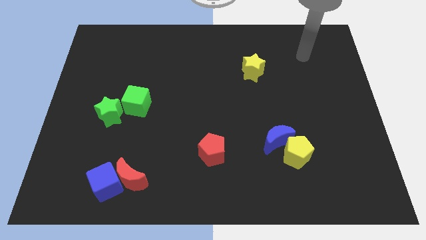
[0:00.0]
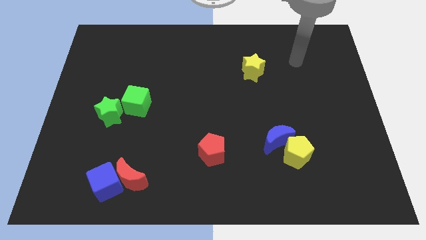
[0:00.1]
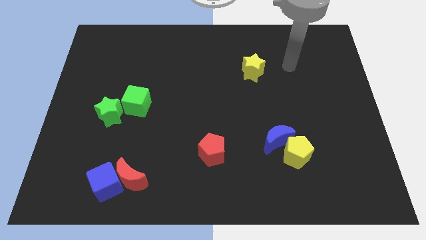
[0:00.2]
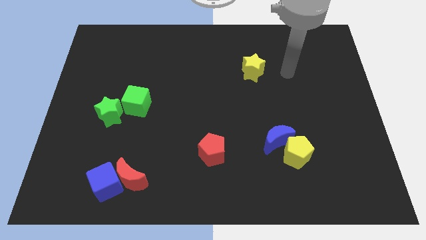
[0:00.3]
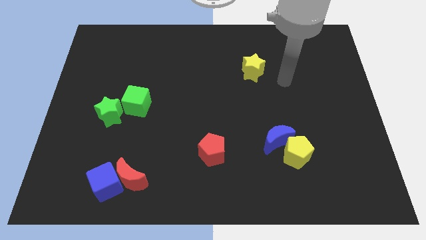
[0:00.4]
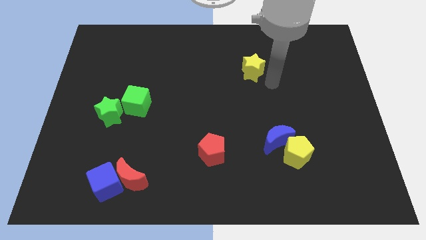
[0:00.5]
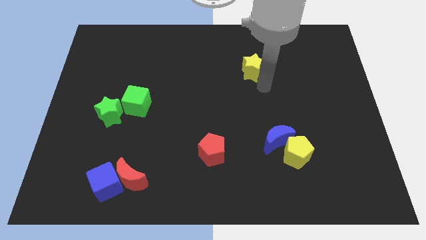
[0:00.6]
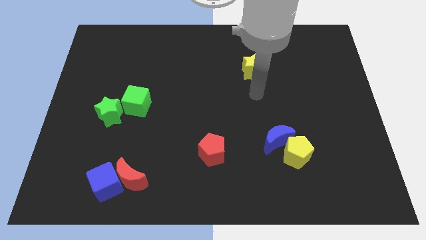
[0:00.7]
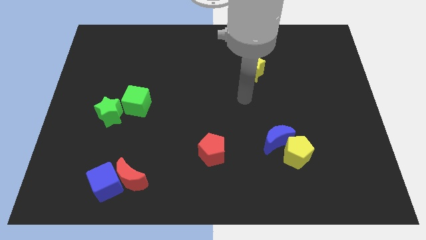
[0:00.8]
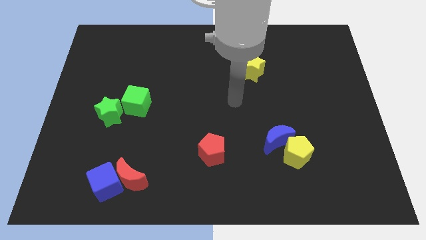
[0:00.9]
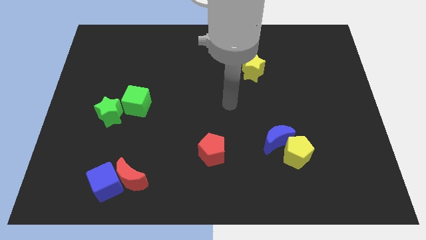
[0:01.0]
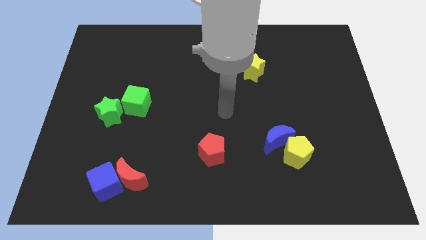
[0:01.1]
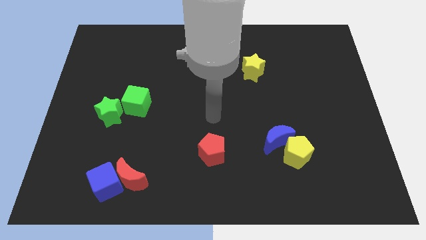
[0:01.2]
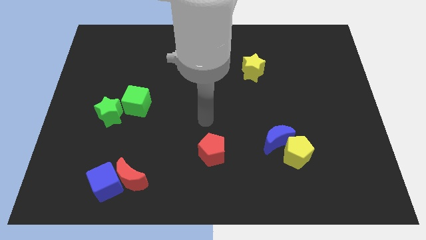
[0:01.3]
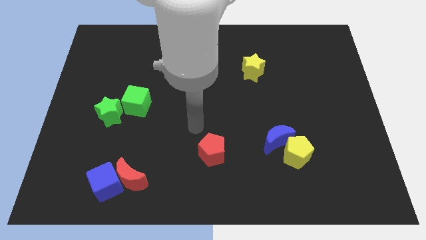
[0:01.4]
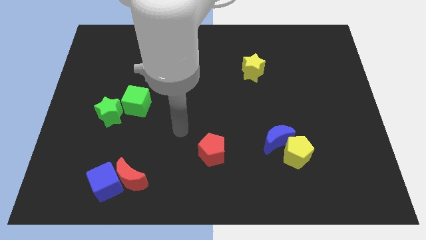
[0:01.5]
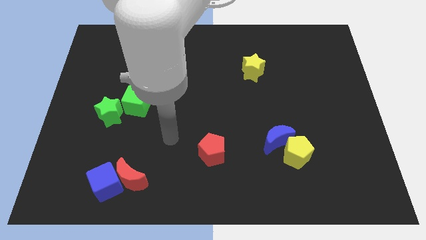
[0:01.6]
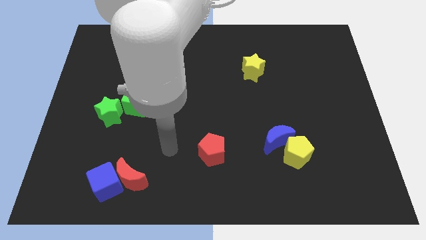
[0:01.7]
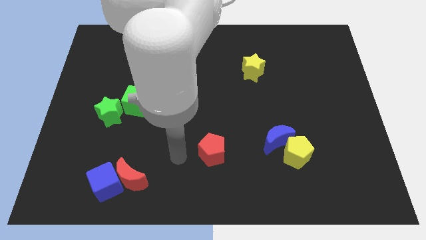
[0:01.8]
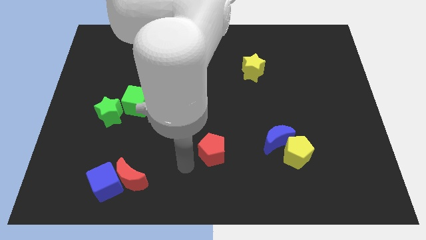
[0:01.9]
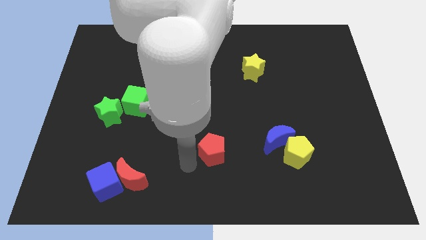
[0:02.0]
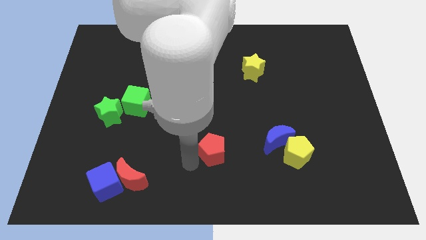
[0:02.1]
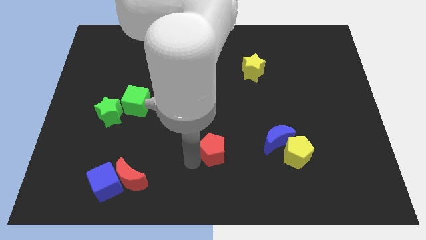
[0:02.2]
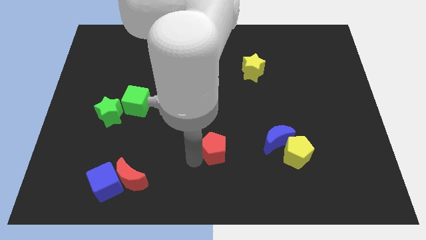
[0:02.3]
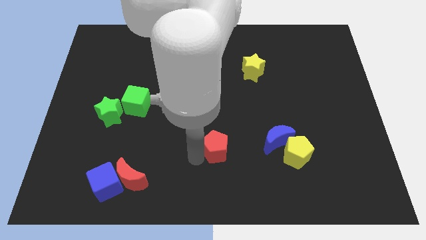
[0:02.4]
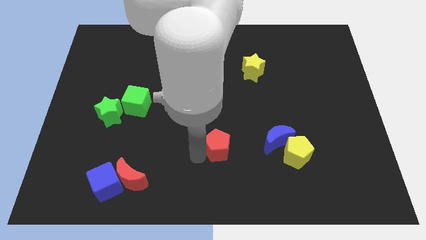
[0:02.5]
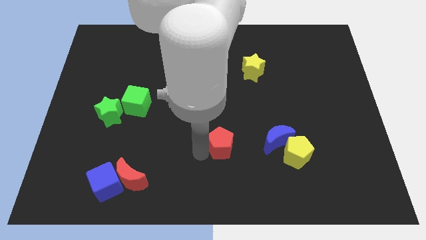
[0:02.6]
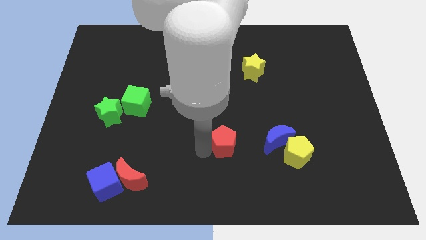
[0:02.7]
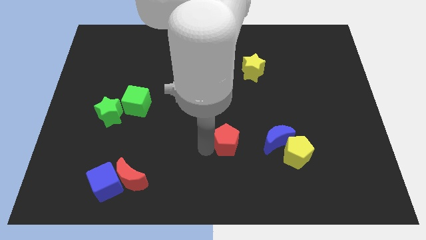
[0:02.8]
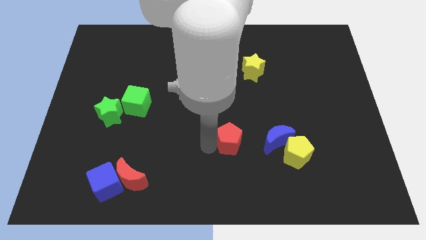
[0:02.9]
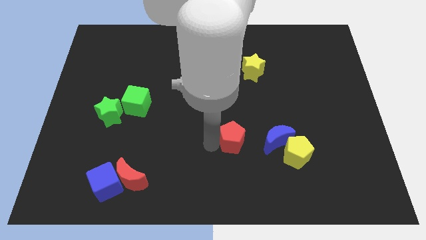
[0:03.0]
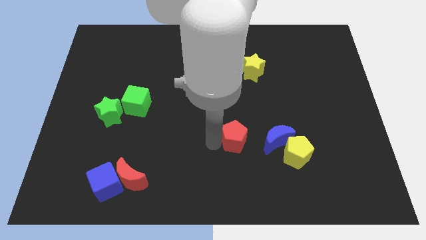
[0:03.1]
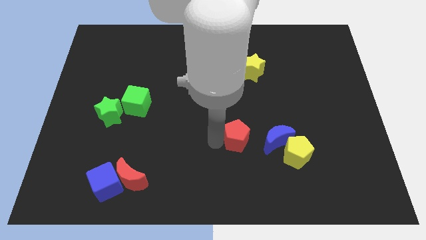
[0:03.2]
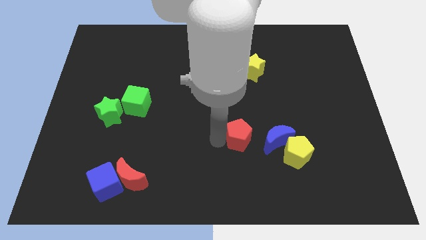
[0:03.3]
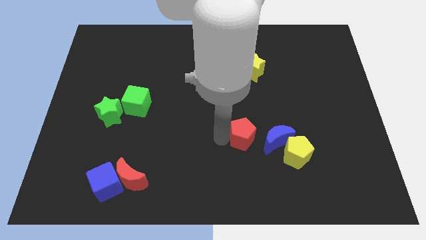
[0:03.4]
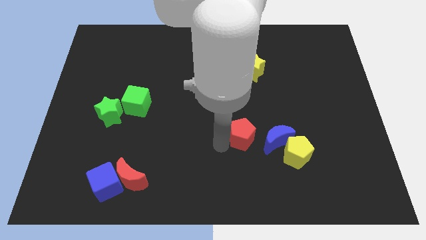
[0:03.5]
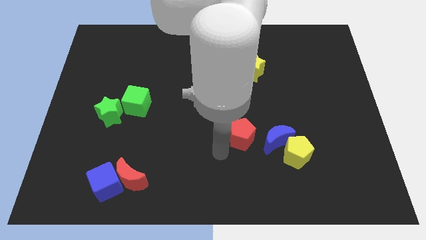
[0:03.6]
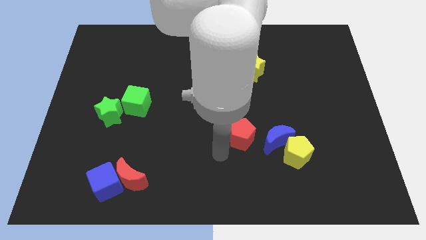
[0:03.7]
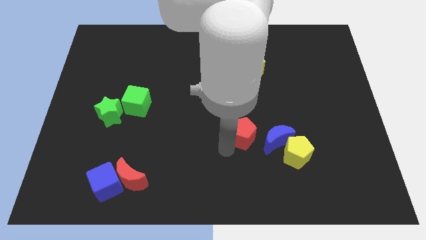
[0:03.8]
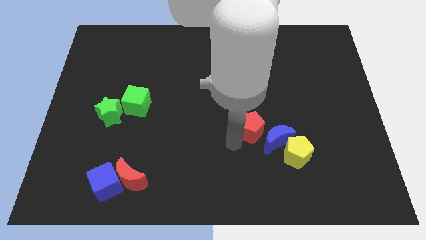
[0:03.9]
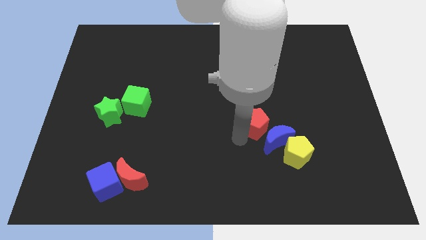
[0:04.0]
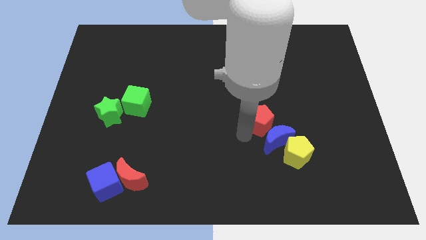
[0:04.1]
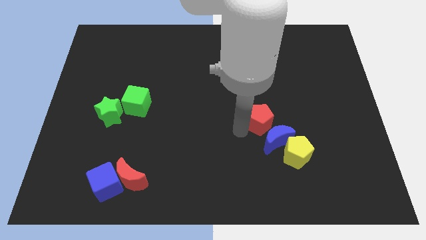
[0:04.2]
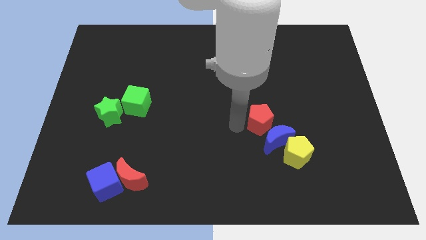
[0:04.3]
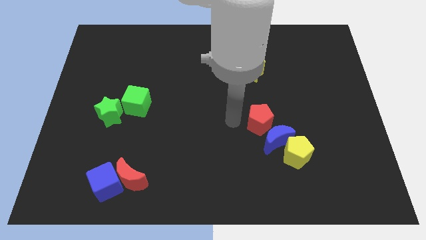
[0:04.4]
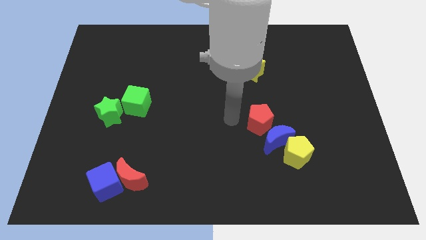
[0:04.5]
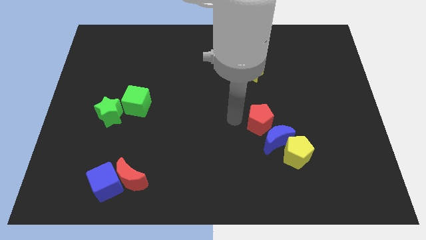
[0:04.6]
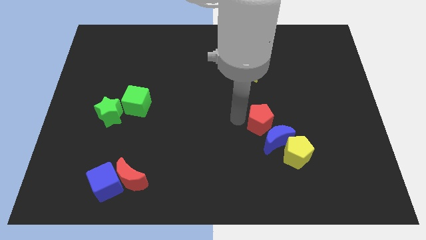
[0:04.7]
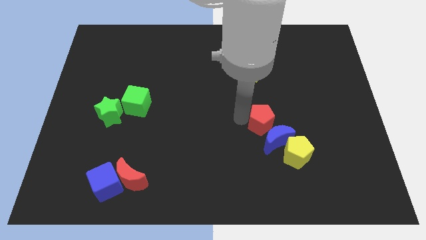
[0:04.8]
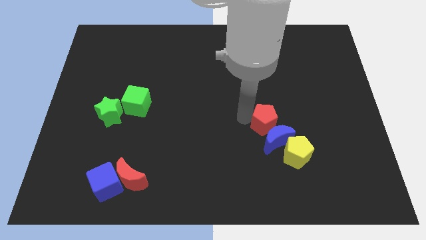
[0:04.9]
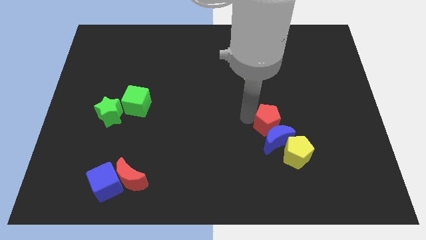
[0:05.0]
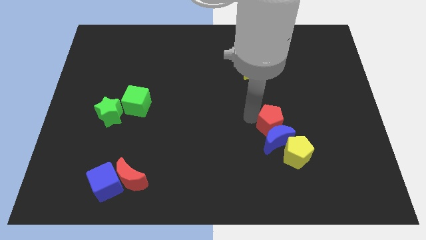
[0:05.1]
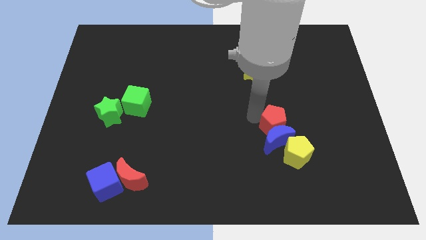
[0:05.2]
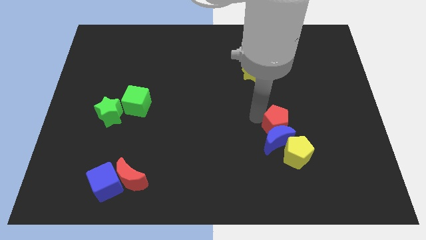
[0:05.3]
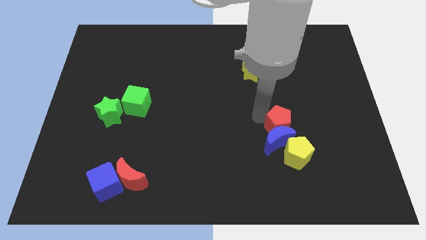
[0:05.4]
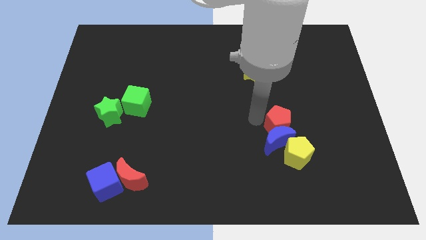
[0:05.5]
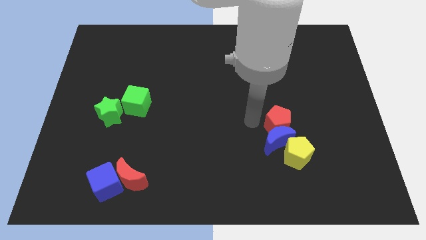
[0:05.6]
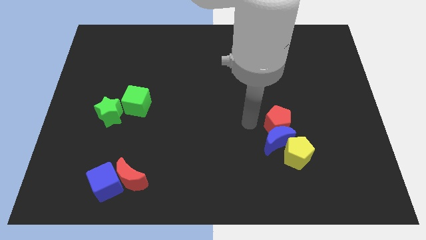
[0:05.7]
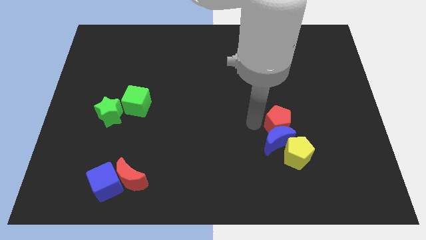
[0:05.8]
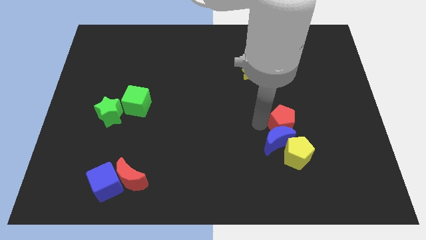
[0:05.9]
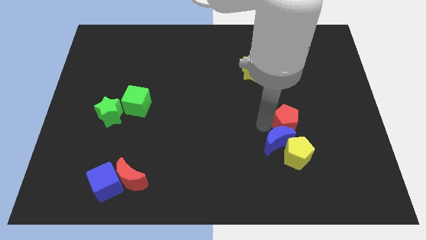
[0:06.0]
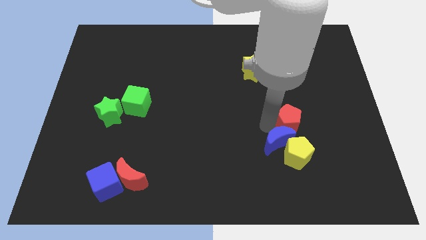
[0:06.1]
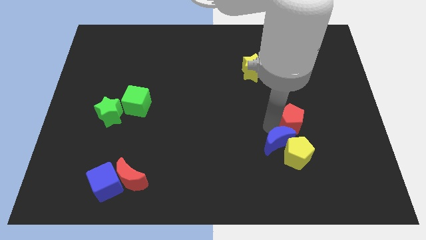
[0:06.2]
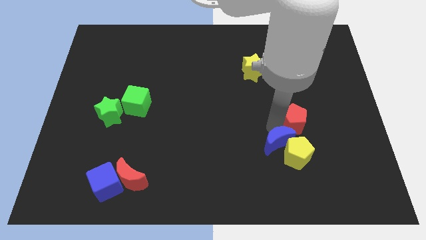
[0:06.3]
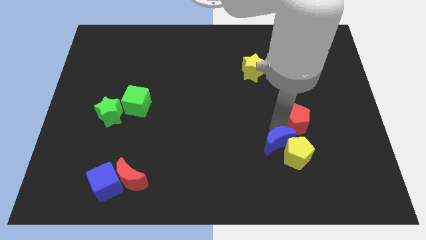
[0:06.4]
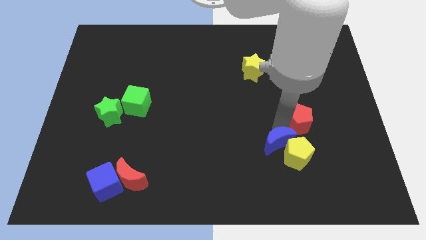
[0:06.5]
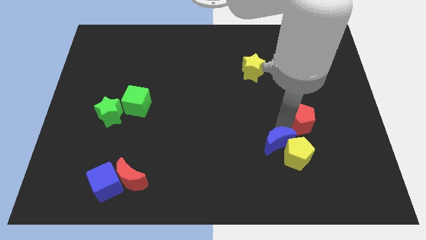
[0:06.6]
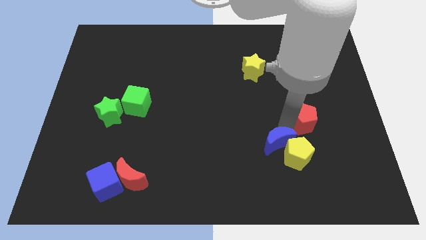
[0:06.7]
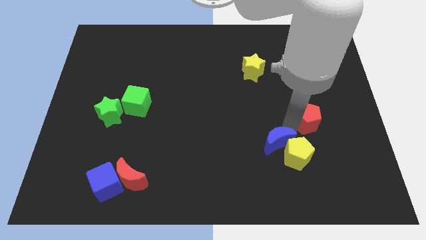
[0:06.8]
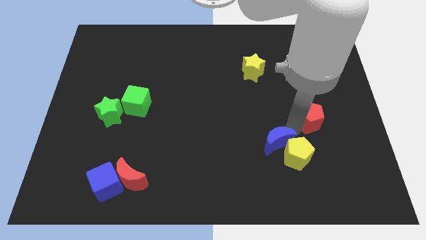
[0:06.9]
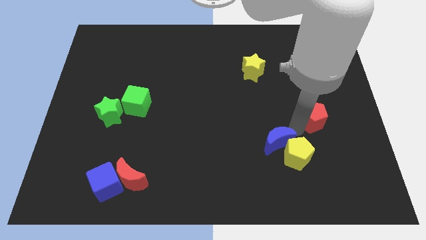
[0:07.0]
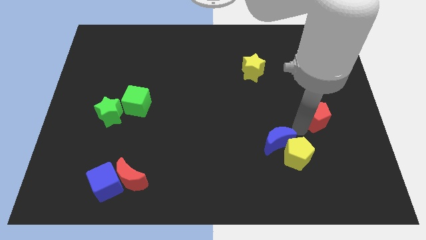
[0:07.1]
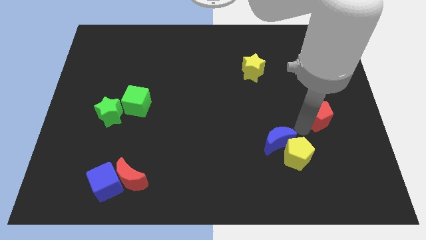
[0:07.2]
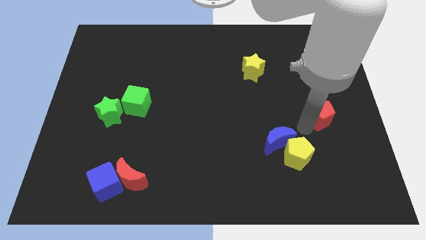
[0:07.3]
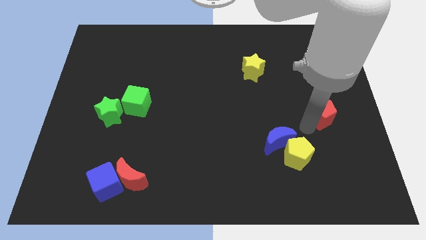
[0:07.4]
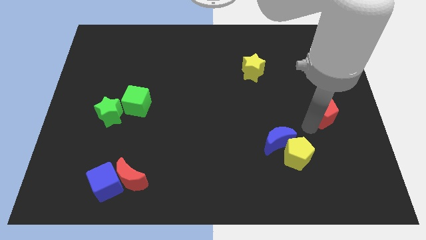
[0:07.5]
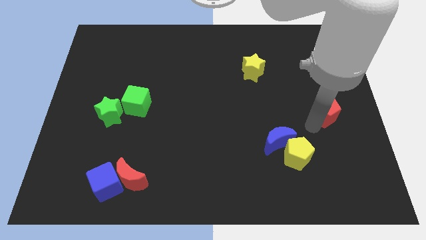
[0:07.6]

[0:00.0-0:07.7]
push the red pentagon to the center right
